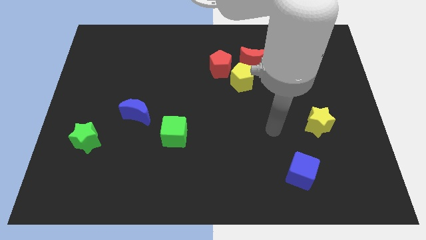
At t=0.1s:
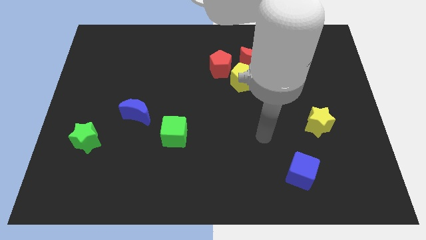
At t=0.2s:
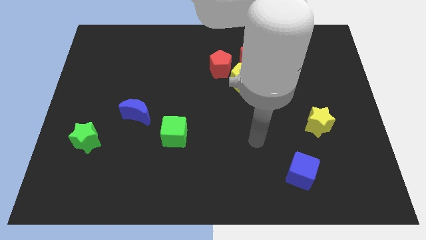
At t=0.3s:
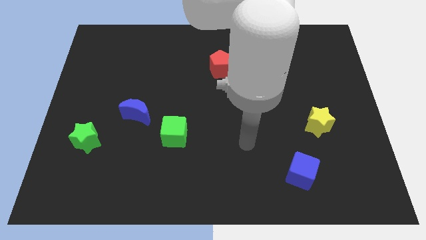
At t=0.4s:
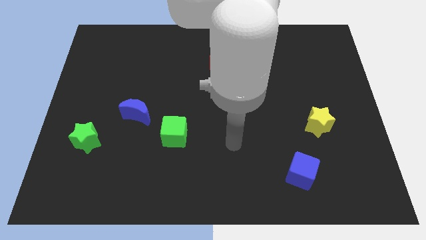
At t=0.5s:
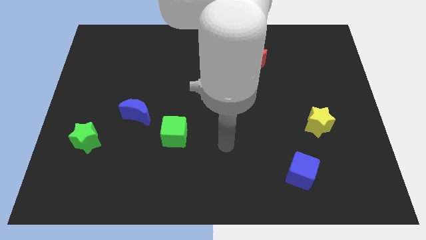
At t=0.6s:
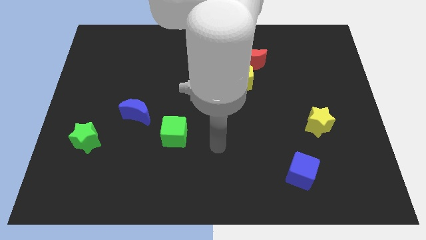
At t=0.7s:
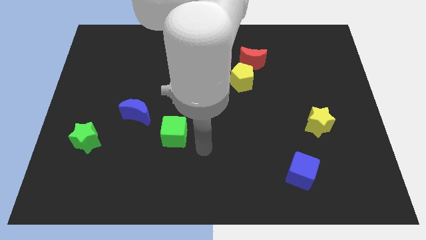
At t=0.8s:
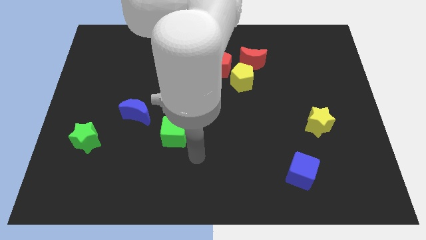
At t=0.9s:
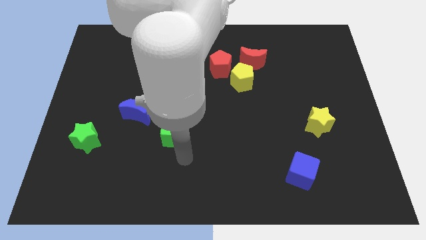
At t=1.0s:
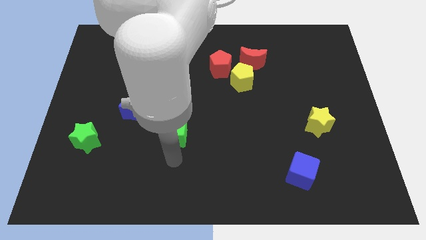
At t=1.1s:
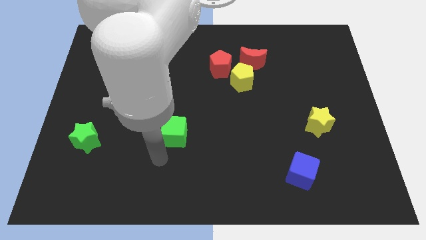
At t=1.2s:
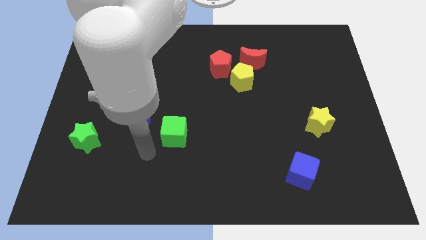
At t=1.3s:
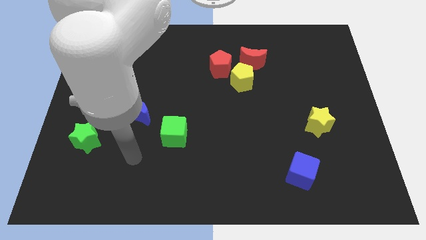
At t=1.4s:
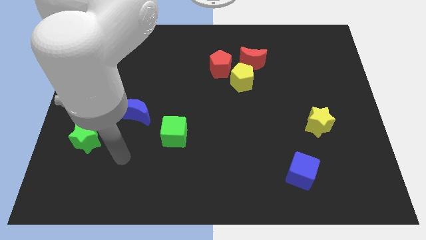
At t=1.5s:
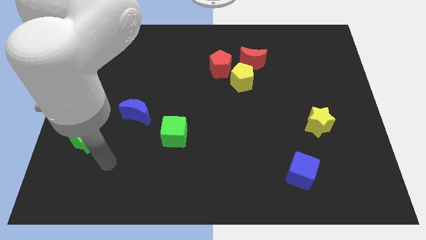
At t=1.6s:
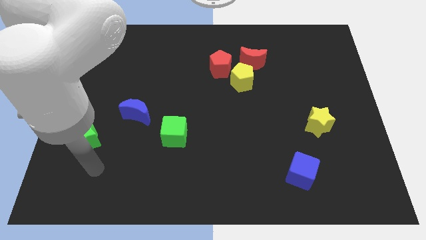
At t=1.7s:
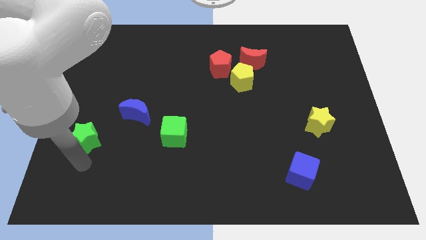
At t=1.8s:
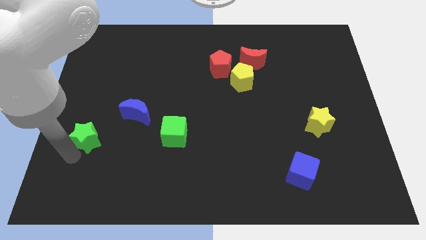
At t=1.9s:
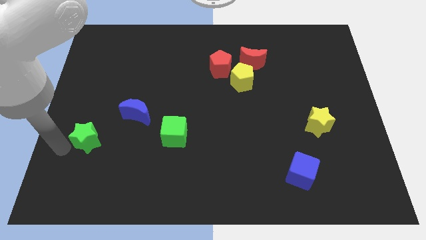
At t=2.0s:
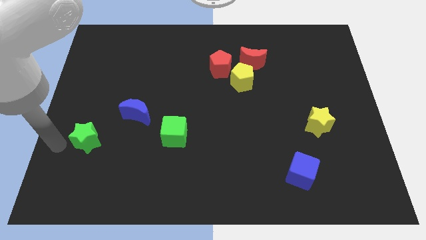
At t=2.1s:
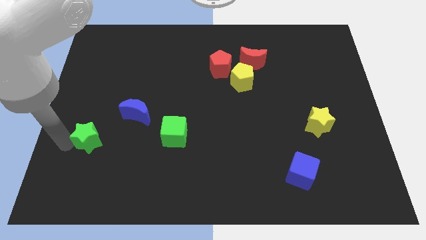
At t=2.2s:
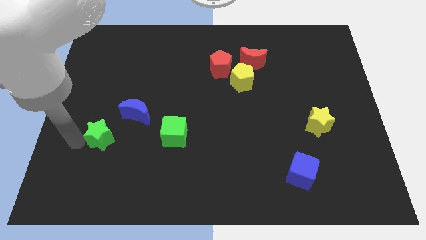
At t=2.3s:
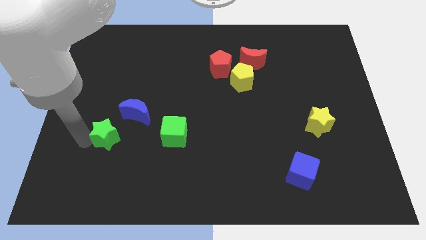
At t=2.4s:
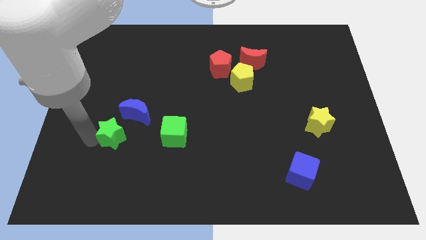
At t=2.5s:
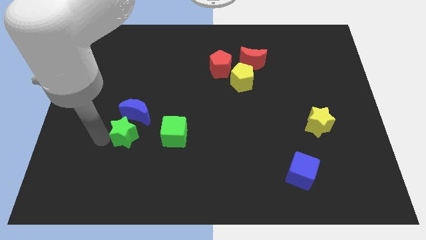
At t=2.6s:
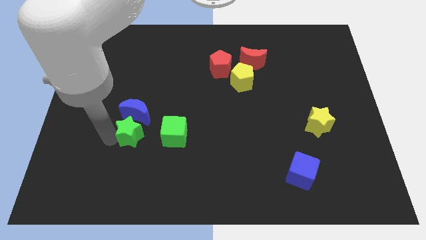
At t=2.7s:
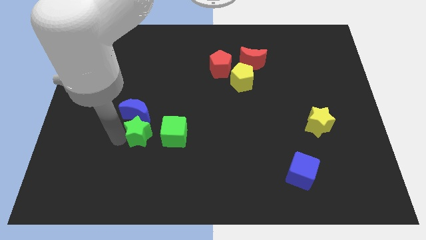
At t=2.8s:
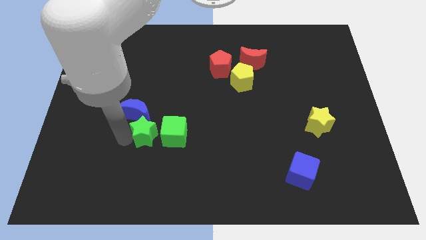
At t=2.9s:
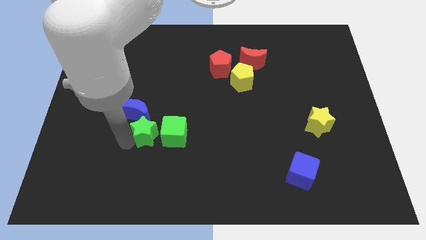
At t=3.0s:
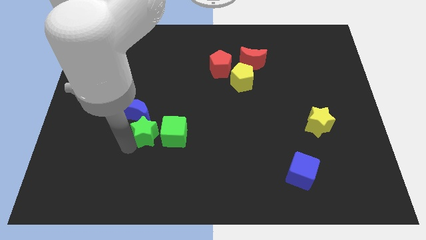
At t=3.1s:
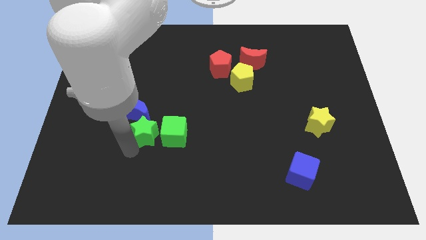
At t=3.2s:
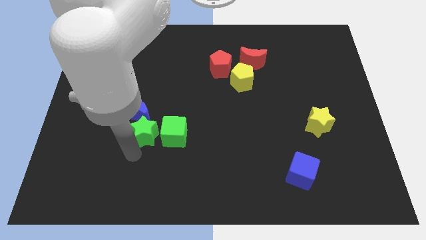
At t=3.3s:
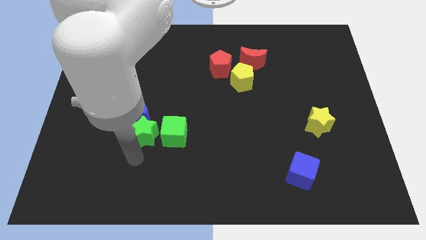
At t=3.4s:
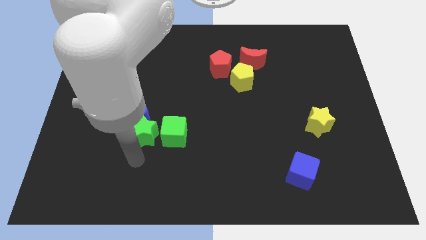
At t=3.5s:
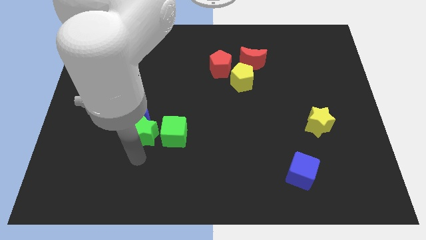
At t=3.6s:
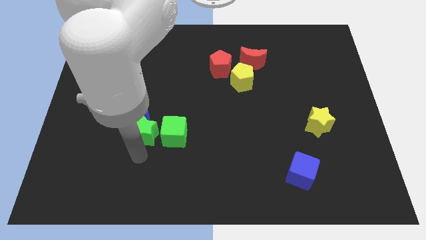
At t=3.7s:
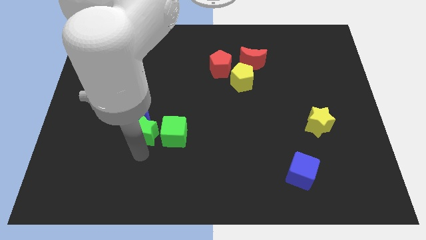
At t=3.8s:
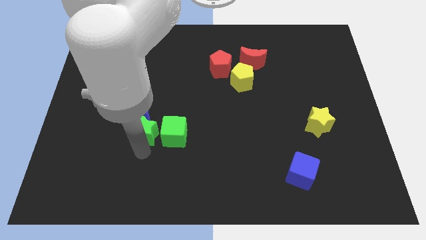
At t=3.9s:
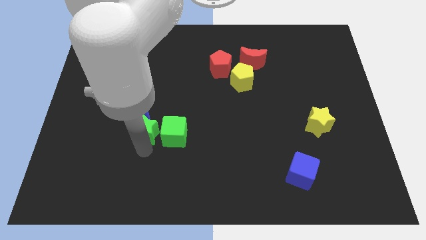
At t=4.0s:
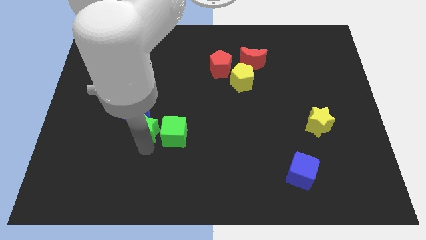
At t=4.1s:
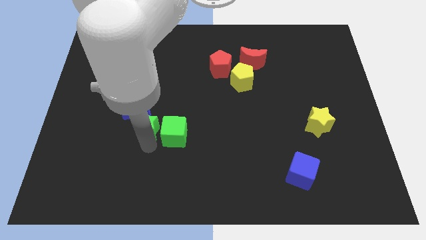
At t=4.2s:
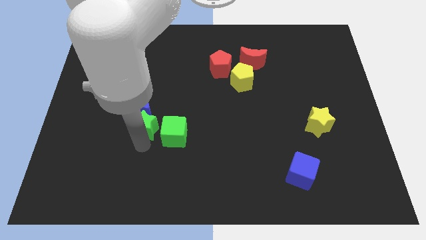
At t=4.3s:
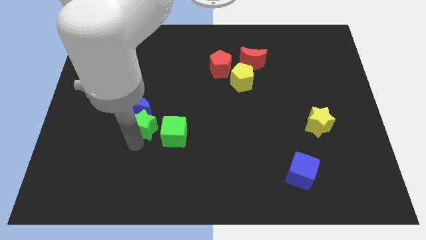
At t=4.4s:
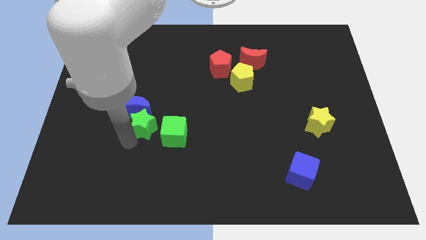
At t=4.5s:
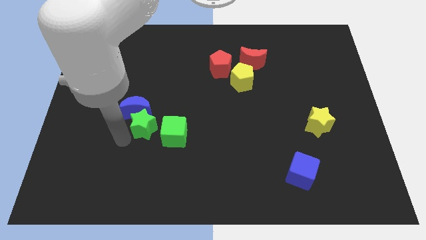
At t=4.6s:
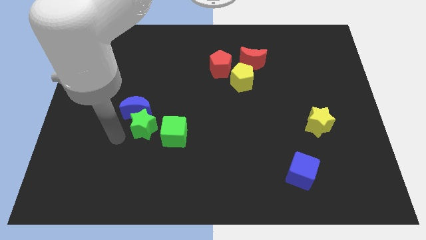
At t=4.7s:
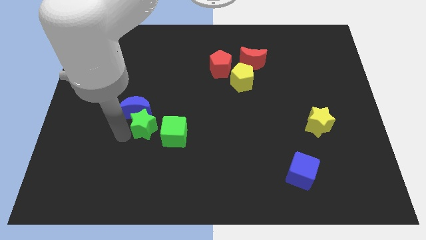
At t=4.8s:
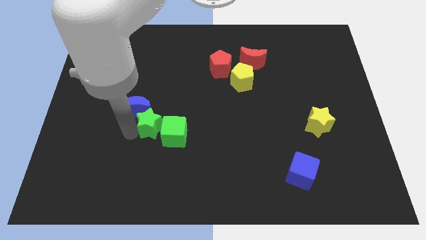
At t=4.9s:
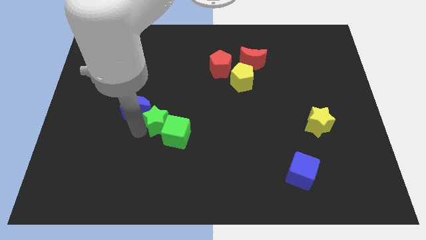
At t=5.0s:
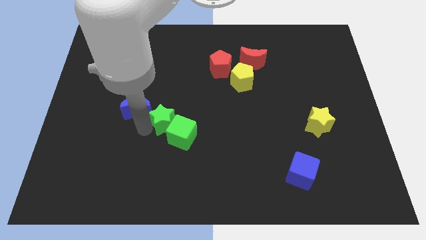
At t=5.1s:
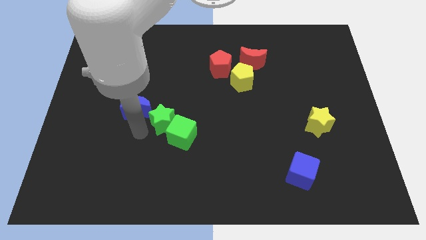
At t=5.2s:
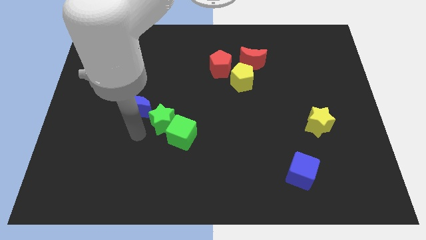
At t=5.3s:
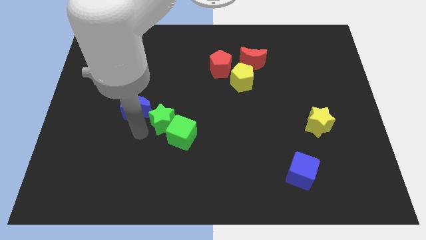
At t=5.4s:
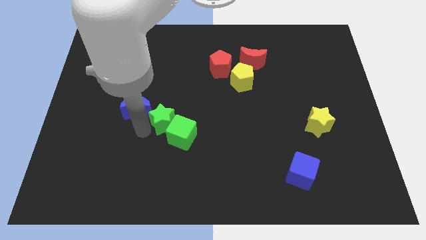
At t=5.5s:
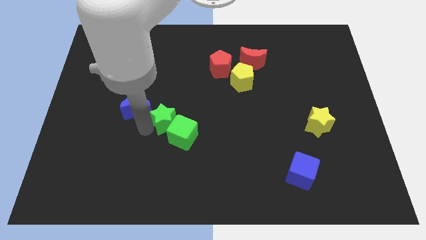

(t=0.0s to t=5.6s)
move the green star to the center of the board

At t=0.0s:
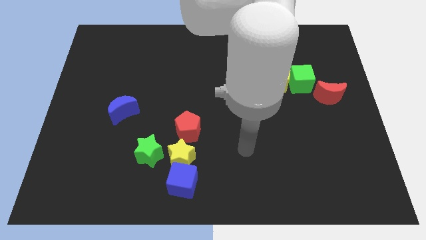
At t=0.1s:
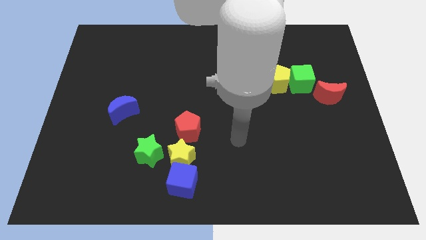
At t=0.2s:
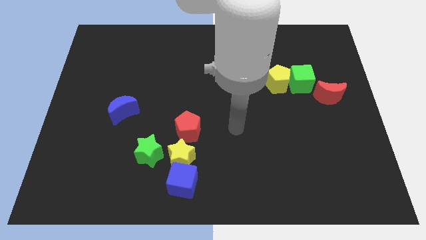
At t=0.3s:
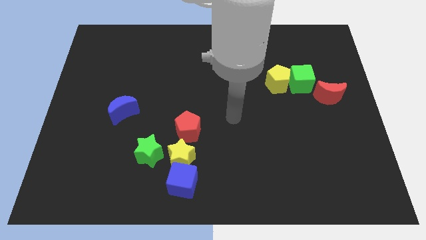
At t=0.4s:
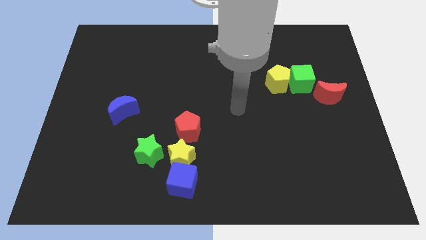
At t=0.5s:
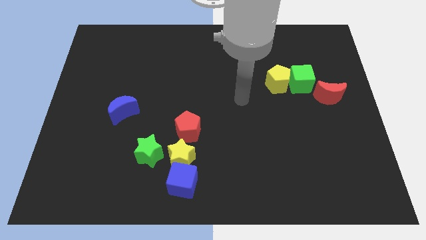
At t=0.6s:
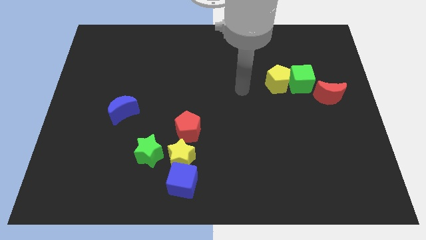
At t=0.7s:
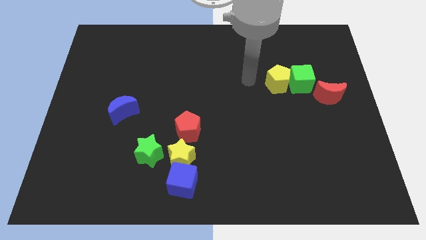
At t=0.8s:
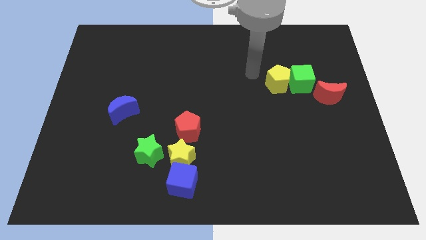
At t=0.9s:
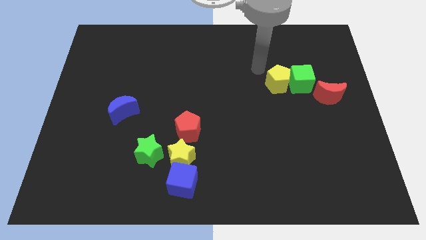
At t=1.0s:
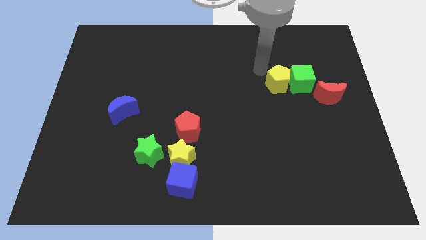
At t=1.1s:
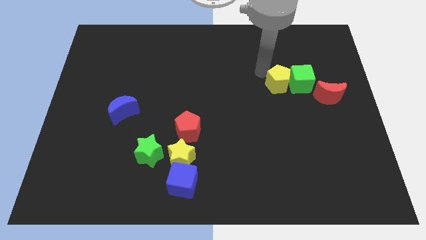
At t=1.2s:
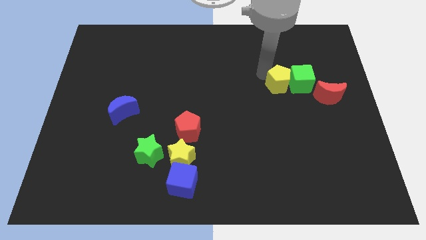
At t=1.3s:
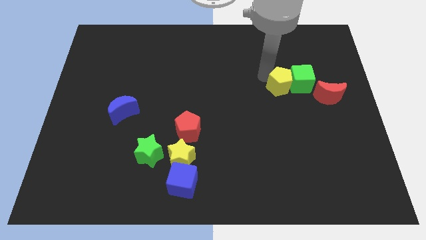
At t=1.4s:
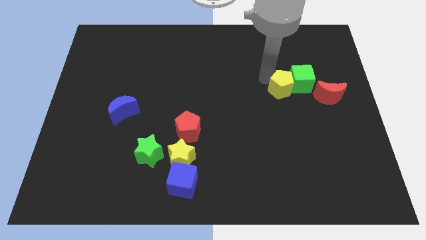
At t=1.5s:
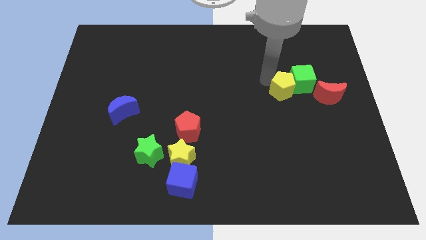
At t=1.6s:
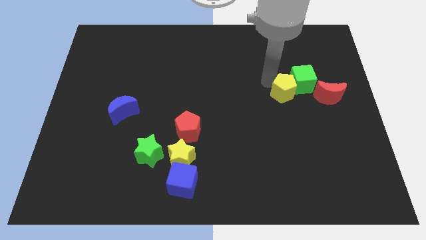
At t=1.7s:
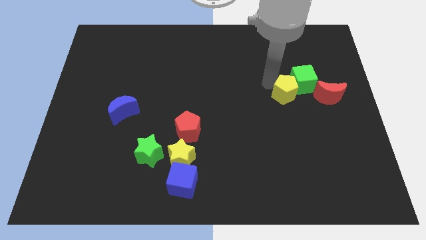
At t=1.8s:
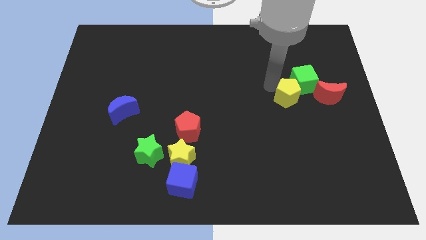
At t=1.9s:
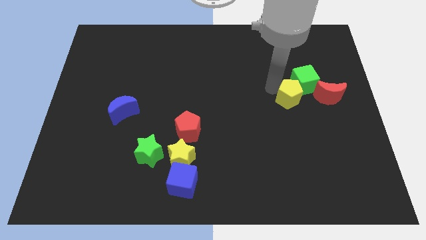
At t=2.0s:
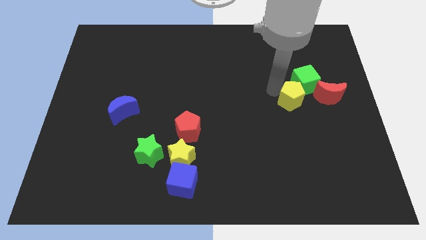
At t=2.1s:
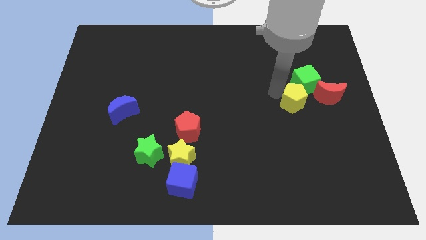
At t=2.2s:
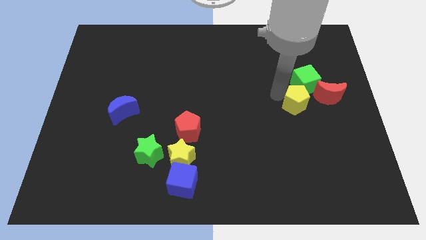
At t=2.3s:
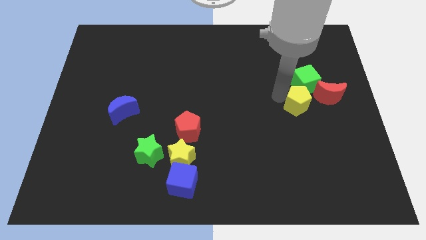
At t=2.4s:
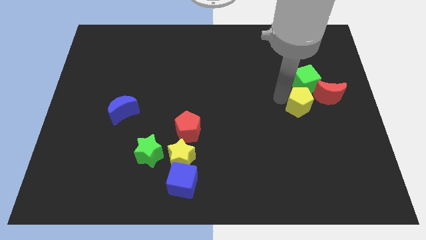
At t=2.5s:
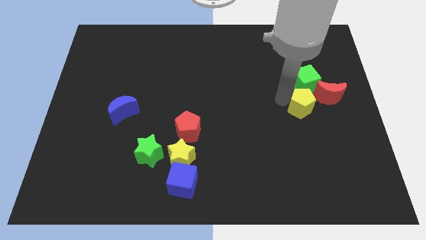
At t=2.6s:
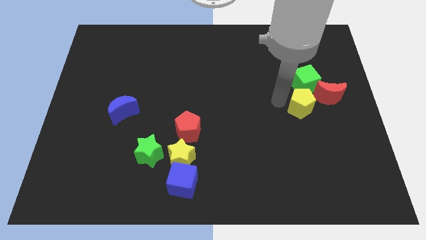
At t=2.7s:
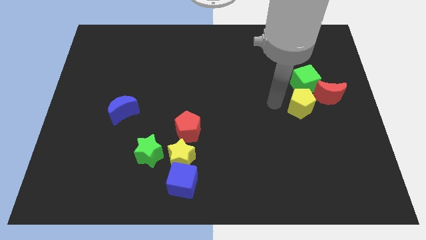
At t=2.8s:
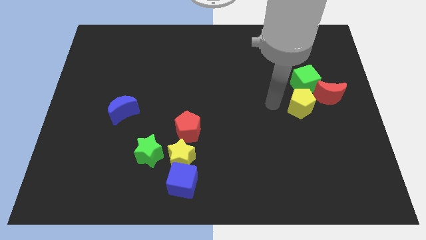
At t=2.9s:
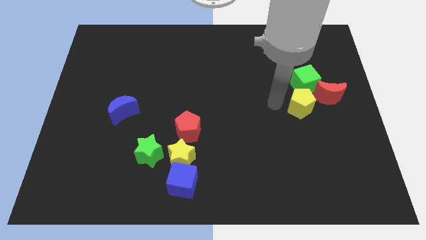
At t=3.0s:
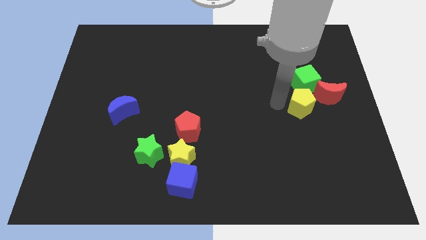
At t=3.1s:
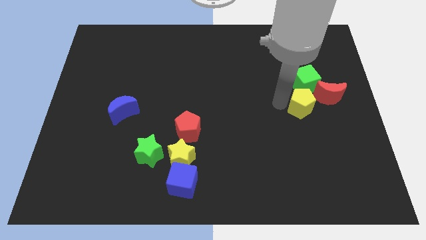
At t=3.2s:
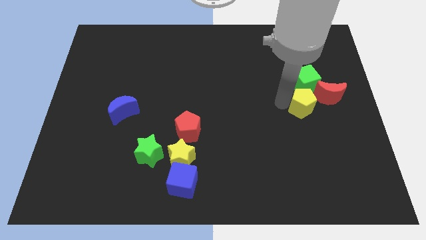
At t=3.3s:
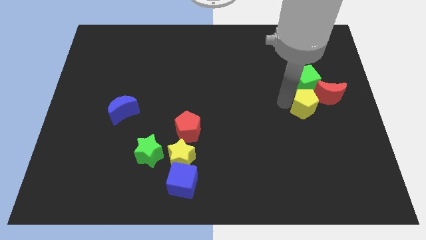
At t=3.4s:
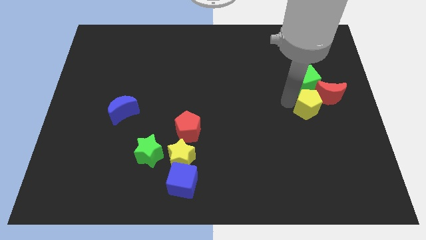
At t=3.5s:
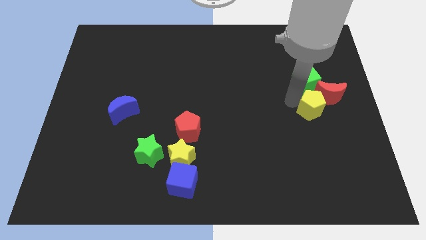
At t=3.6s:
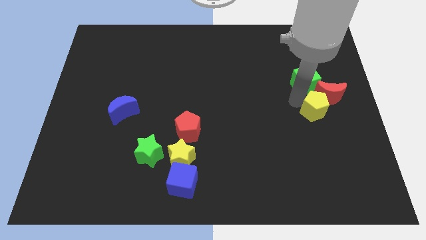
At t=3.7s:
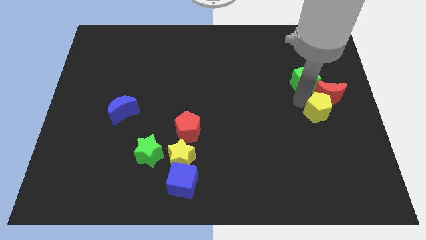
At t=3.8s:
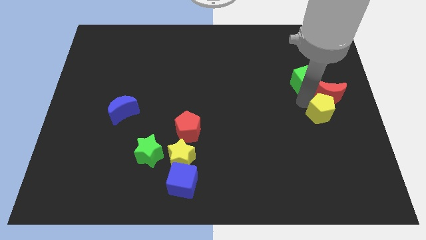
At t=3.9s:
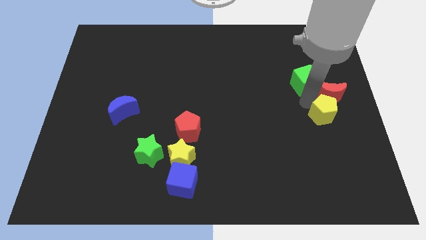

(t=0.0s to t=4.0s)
put the yellow pentagon to the center right
